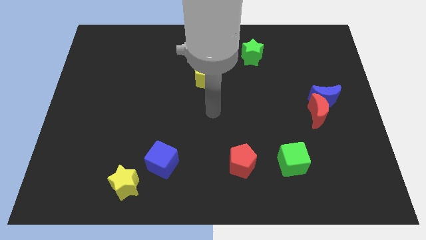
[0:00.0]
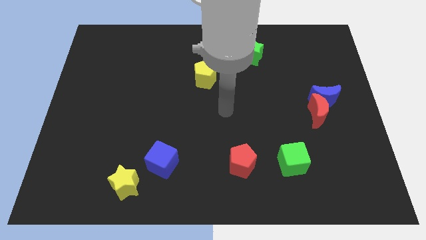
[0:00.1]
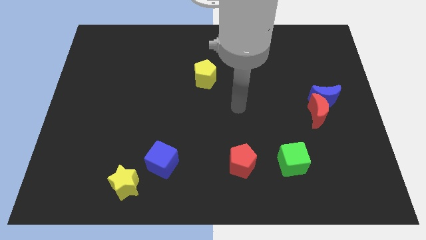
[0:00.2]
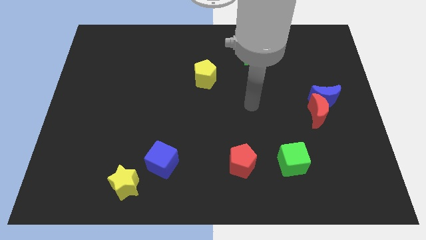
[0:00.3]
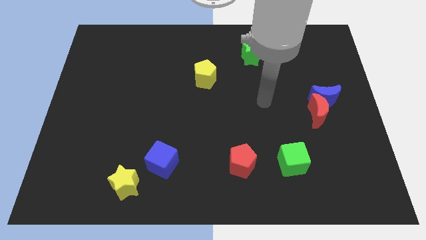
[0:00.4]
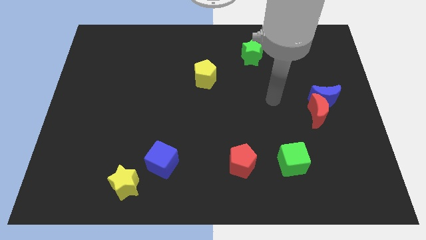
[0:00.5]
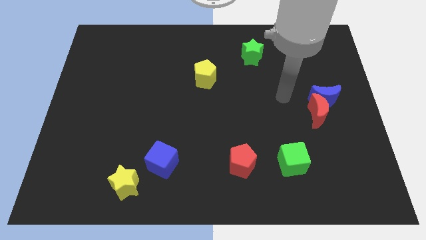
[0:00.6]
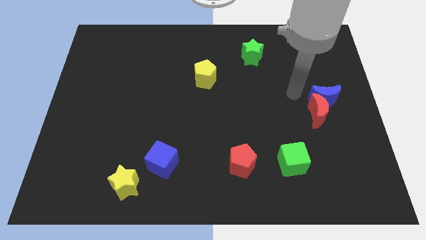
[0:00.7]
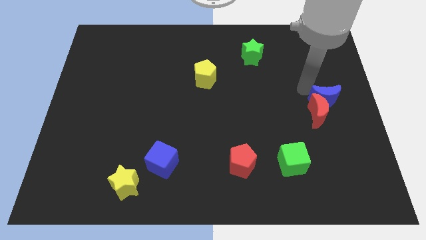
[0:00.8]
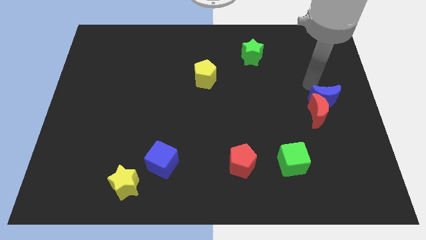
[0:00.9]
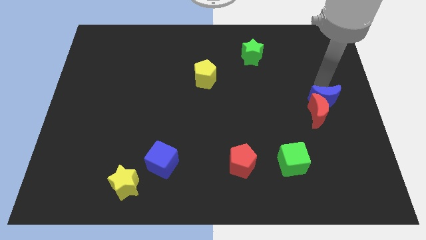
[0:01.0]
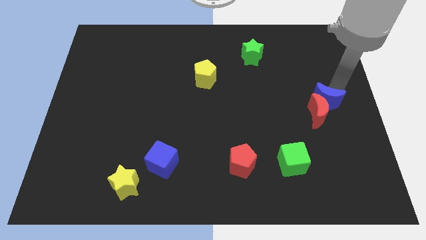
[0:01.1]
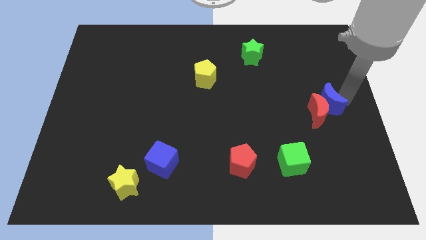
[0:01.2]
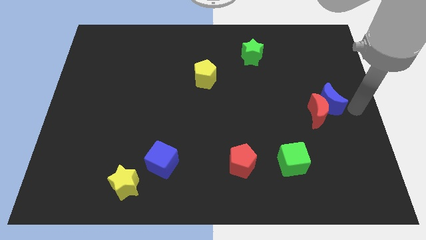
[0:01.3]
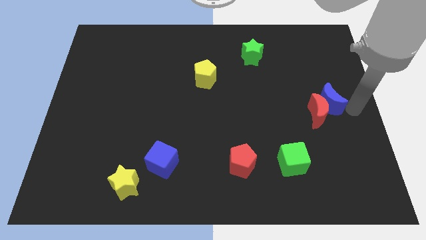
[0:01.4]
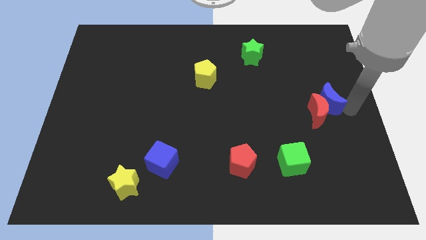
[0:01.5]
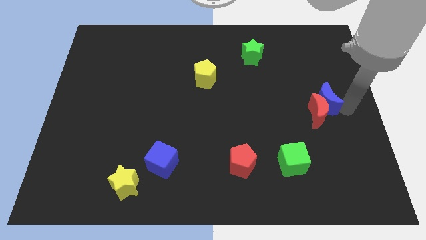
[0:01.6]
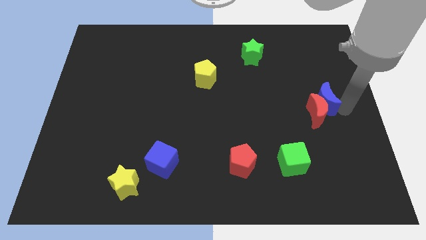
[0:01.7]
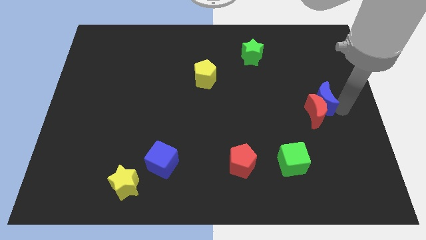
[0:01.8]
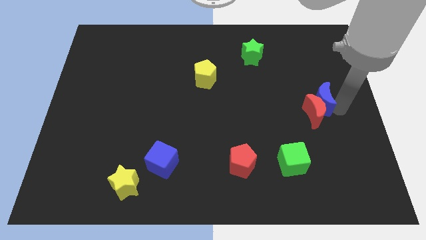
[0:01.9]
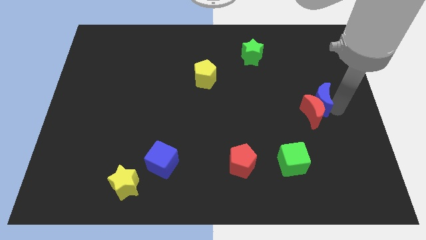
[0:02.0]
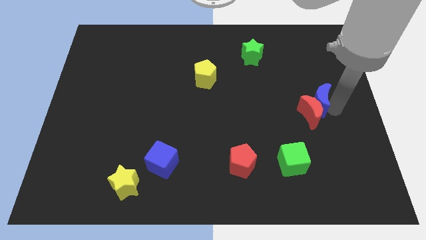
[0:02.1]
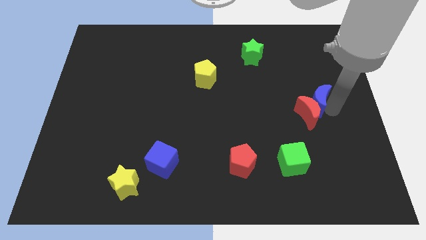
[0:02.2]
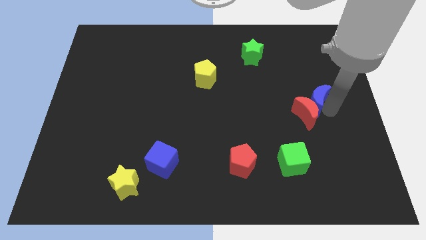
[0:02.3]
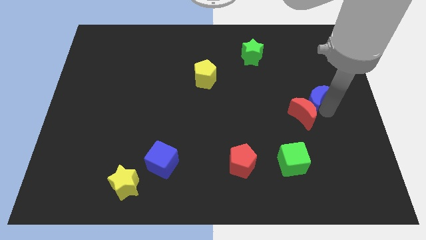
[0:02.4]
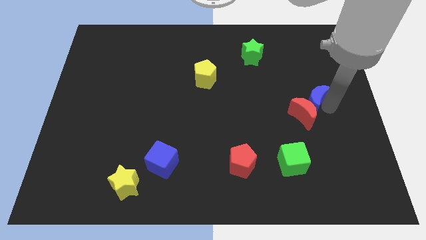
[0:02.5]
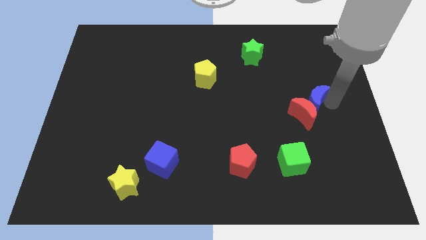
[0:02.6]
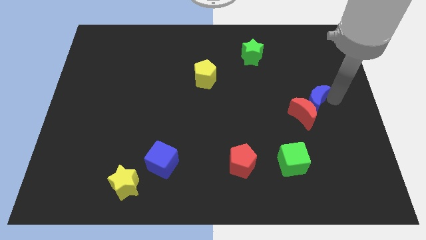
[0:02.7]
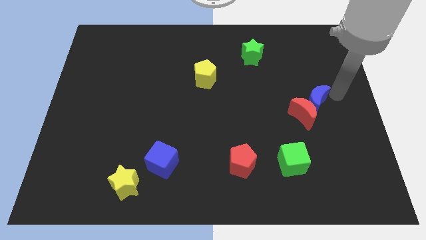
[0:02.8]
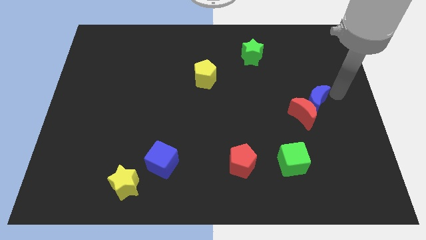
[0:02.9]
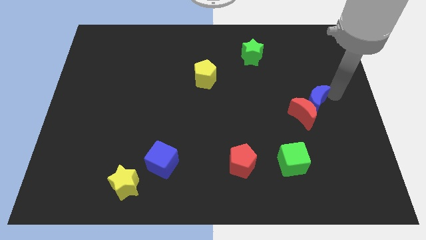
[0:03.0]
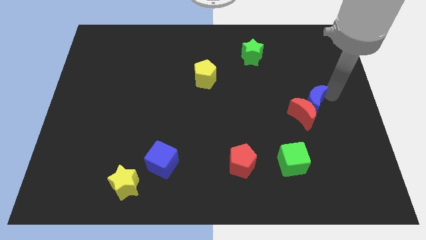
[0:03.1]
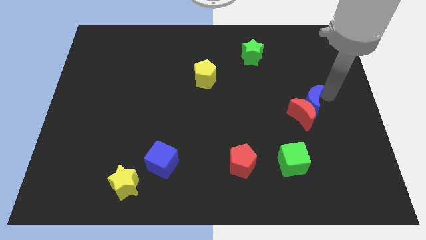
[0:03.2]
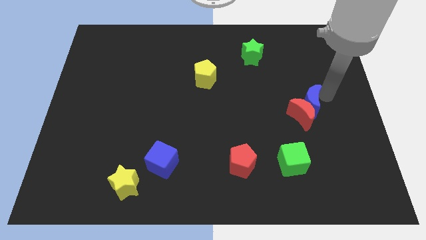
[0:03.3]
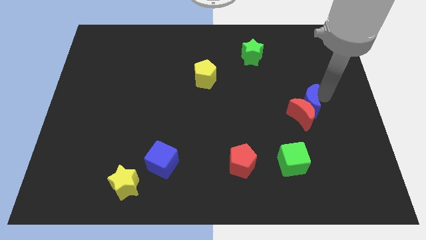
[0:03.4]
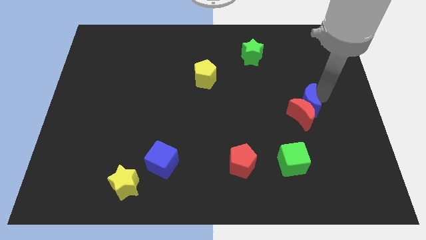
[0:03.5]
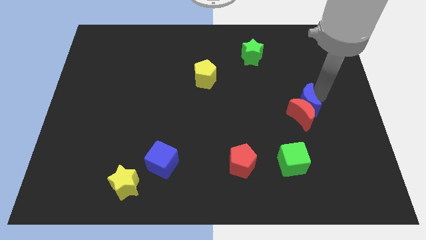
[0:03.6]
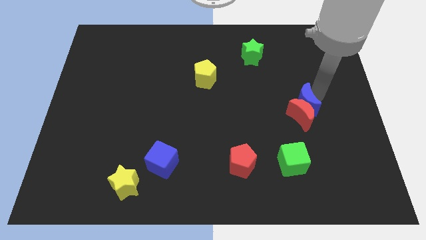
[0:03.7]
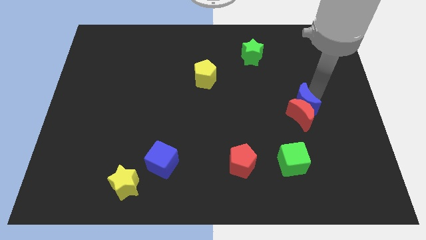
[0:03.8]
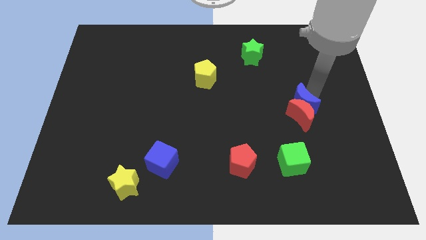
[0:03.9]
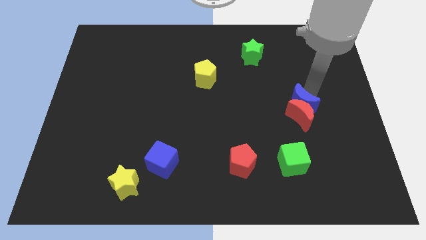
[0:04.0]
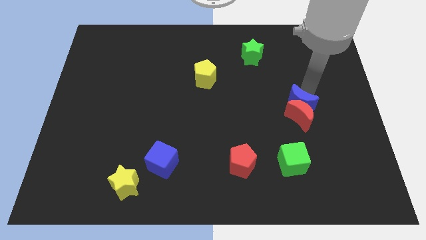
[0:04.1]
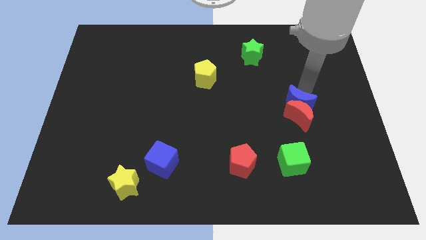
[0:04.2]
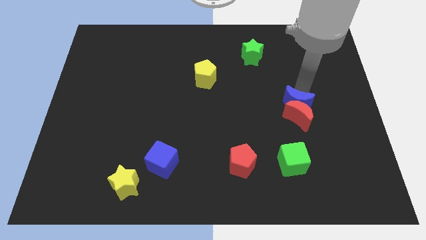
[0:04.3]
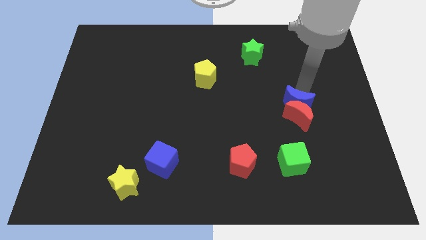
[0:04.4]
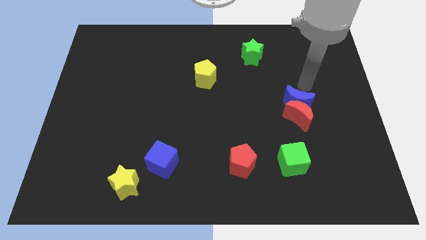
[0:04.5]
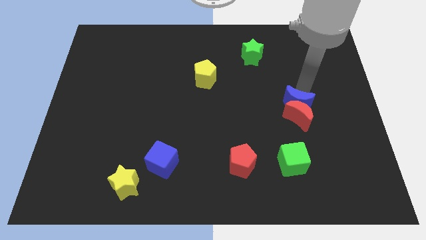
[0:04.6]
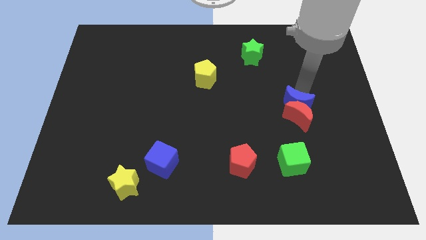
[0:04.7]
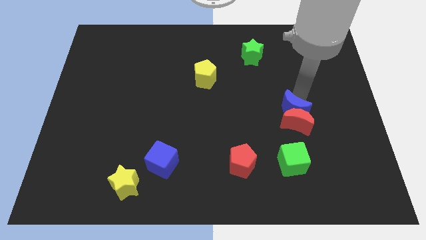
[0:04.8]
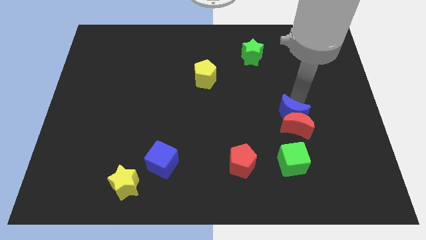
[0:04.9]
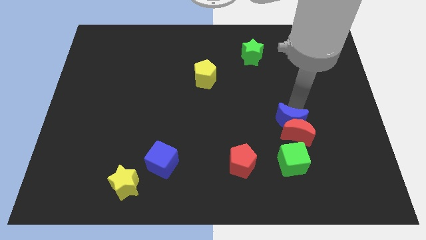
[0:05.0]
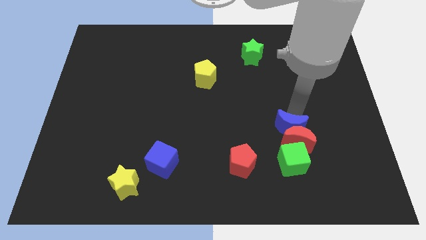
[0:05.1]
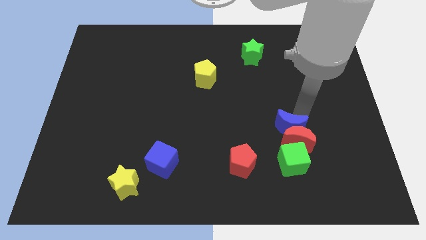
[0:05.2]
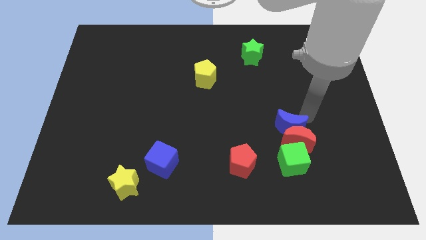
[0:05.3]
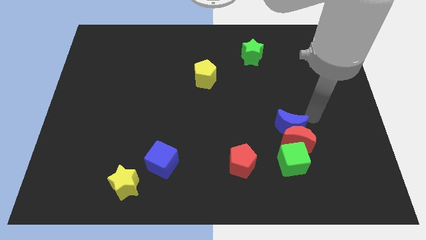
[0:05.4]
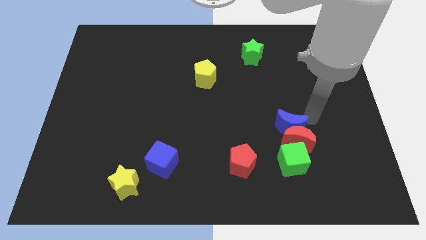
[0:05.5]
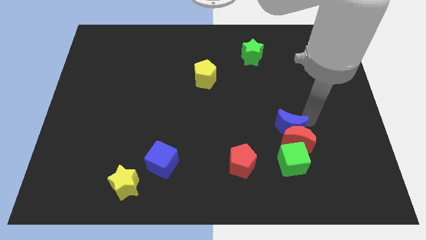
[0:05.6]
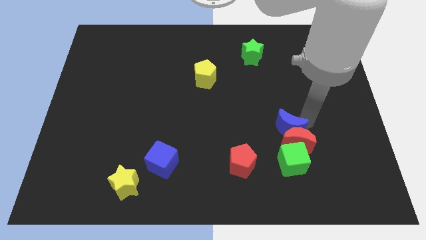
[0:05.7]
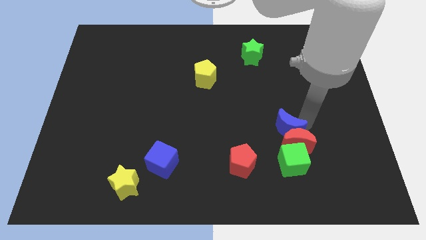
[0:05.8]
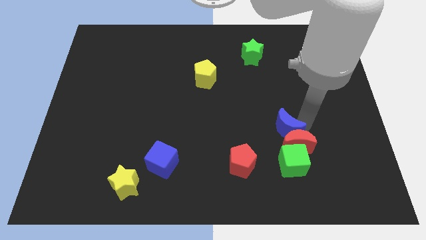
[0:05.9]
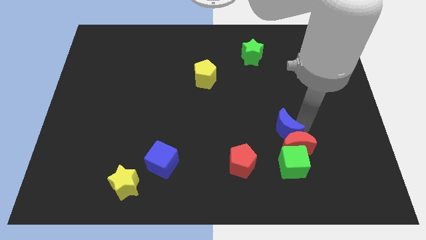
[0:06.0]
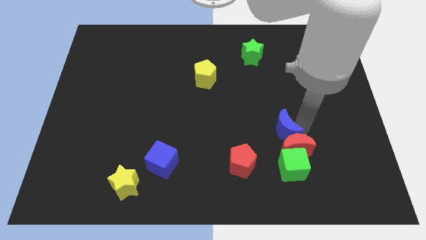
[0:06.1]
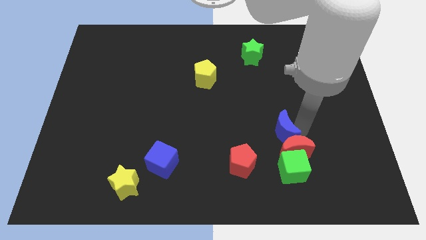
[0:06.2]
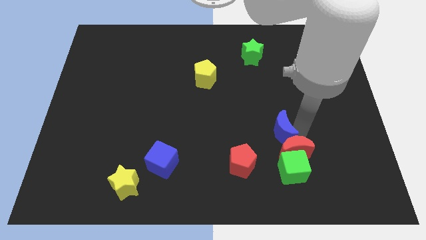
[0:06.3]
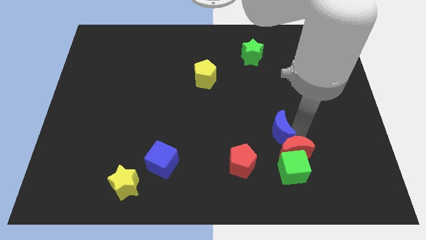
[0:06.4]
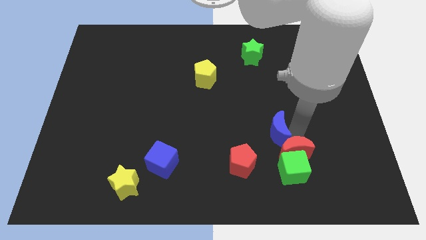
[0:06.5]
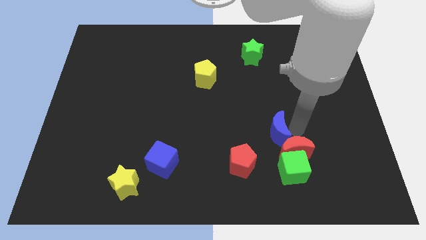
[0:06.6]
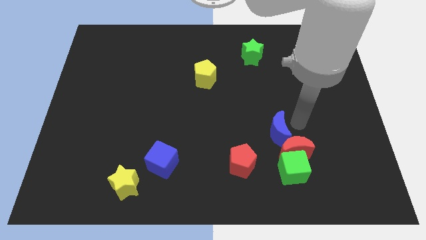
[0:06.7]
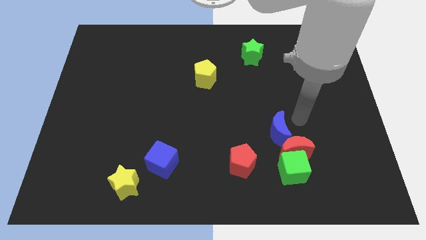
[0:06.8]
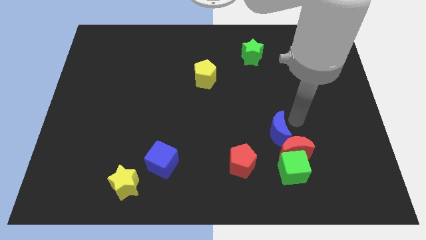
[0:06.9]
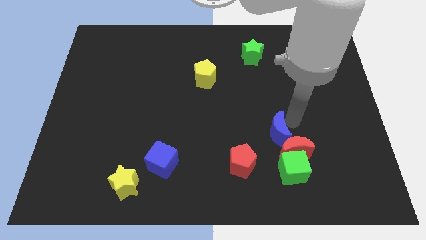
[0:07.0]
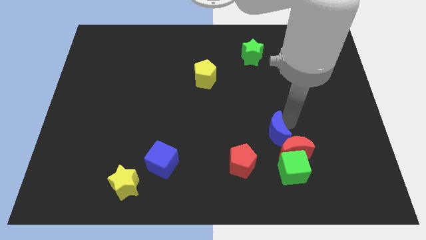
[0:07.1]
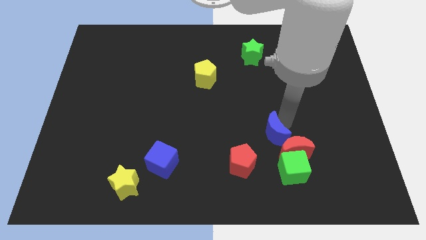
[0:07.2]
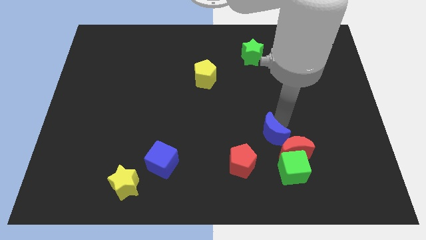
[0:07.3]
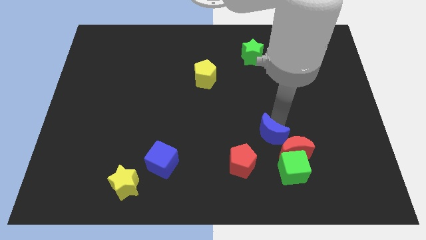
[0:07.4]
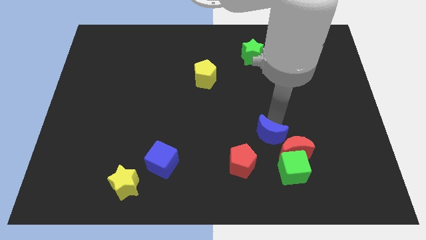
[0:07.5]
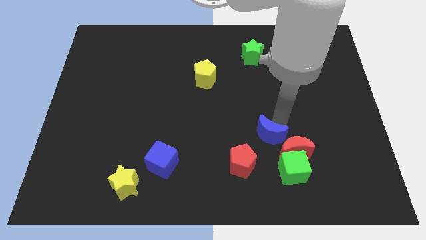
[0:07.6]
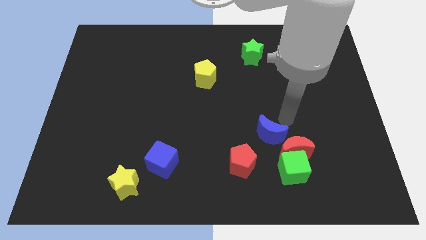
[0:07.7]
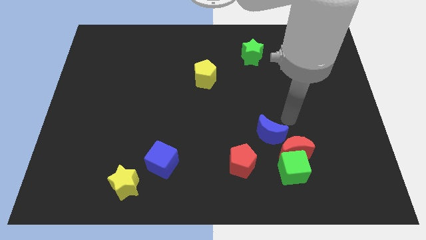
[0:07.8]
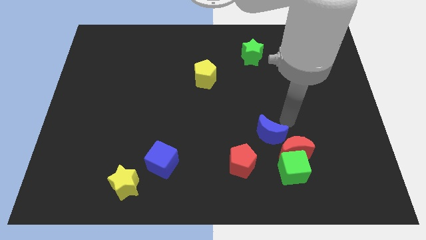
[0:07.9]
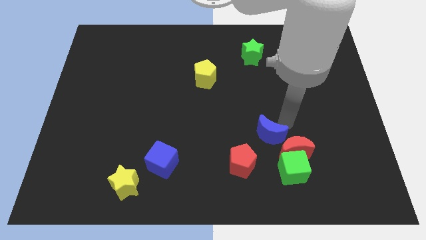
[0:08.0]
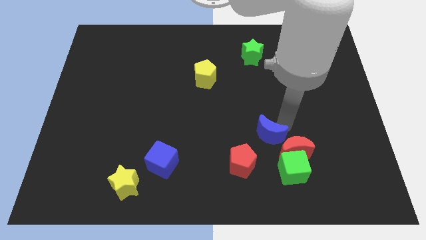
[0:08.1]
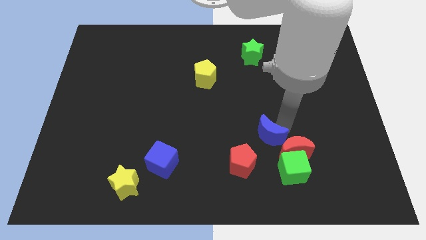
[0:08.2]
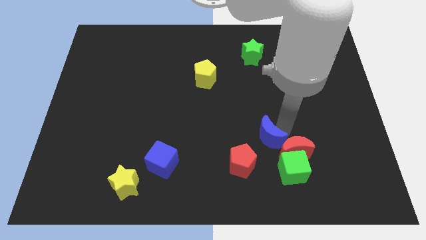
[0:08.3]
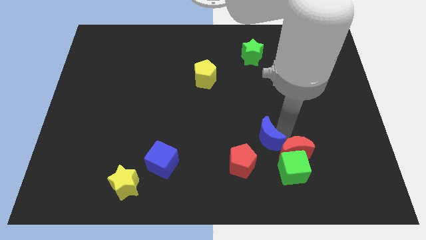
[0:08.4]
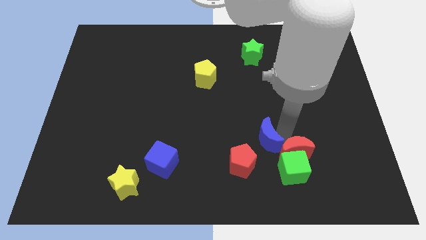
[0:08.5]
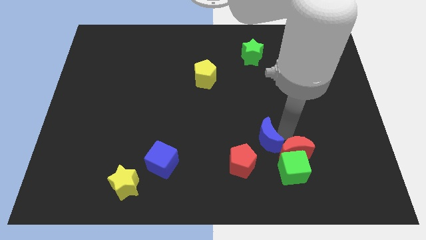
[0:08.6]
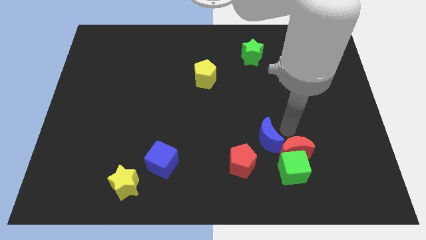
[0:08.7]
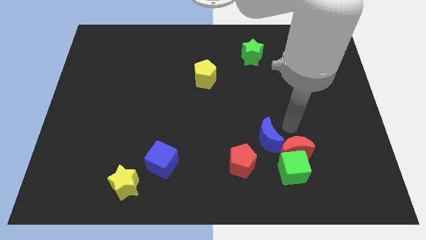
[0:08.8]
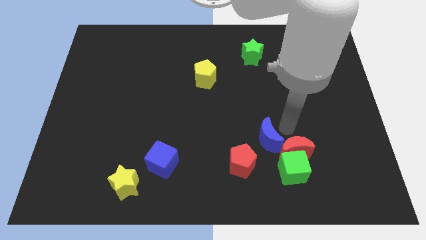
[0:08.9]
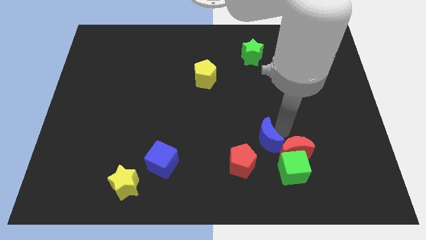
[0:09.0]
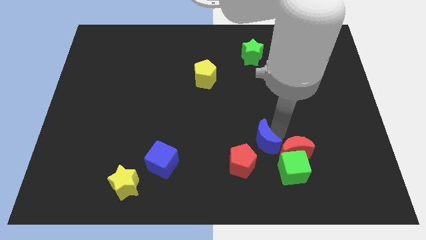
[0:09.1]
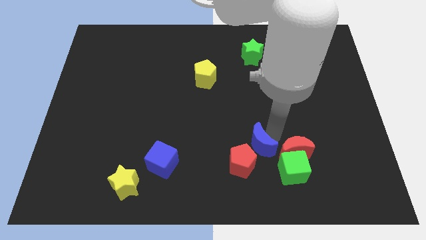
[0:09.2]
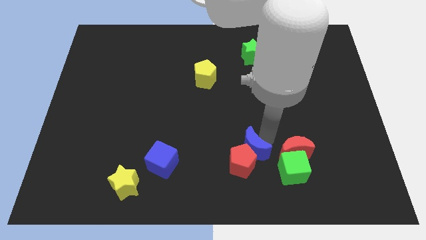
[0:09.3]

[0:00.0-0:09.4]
push the blue moon to the red pentagon
